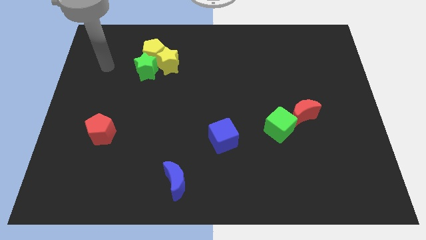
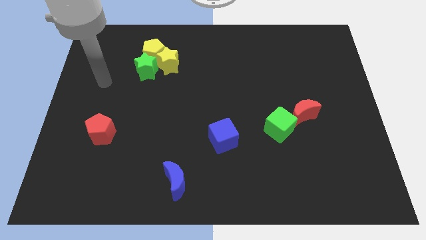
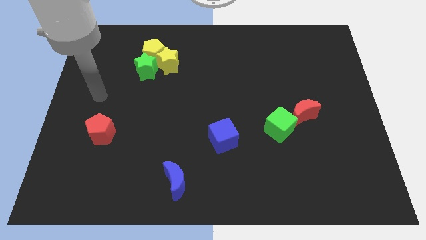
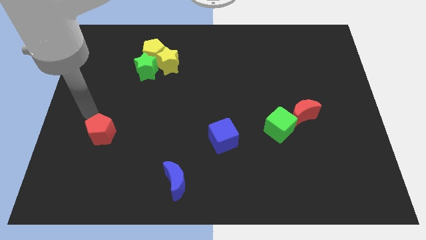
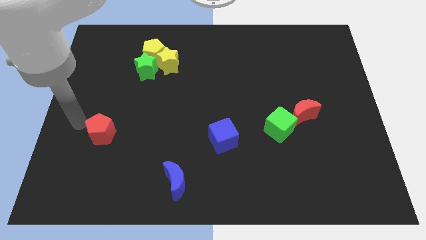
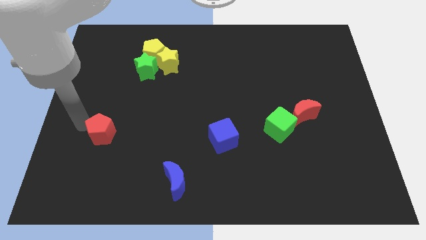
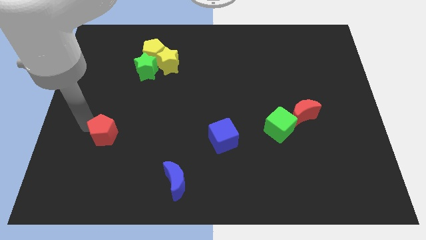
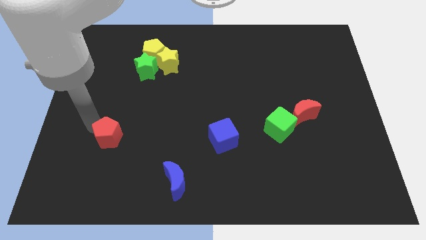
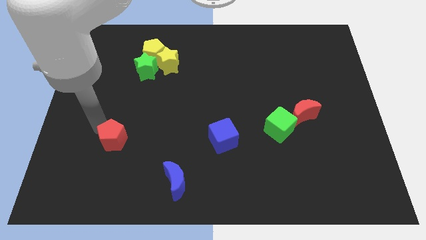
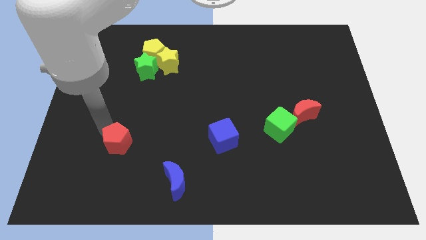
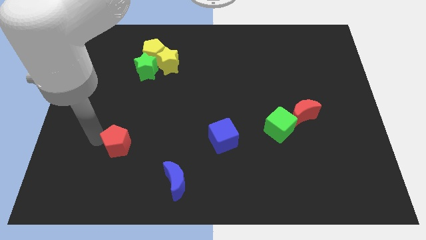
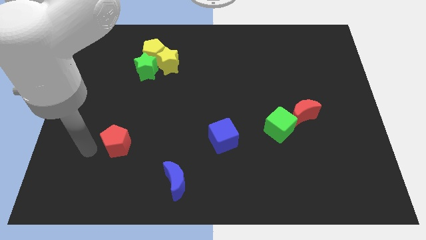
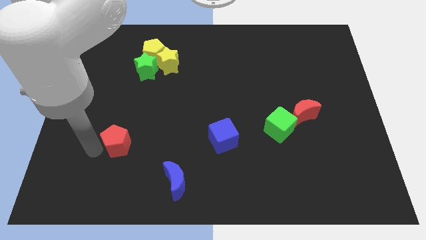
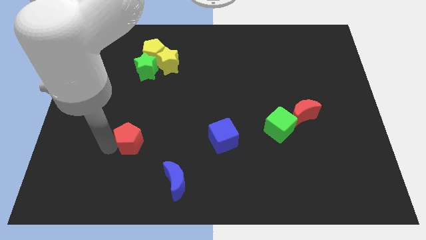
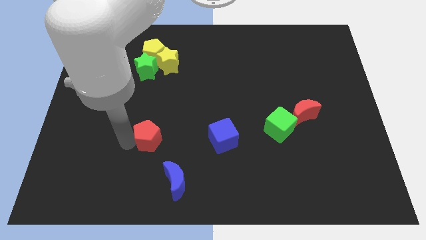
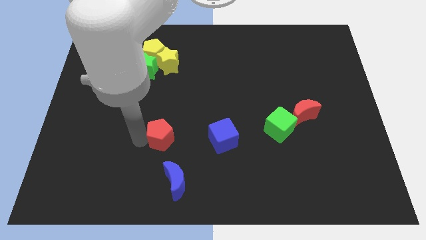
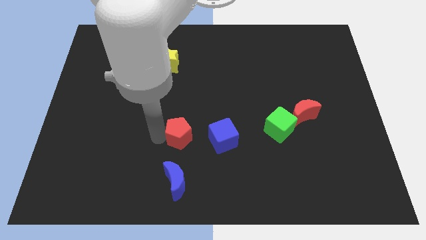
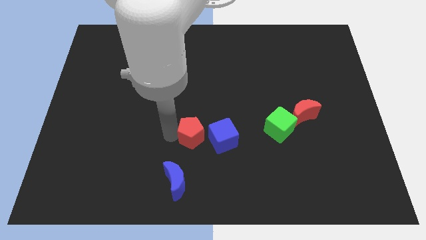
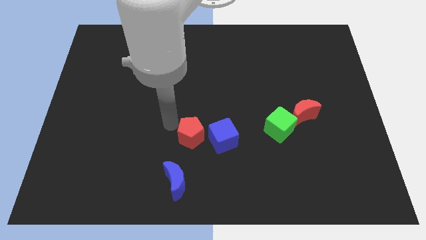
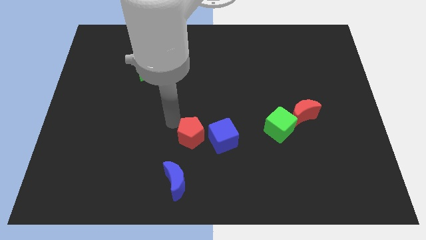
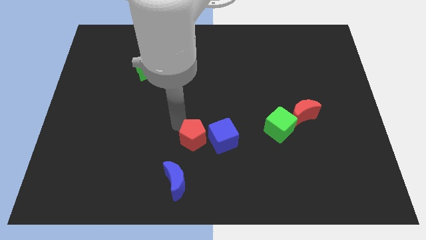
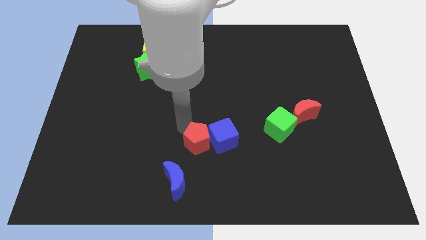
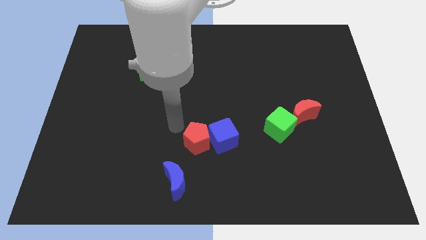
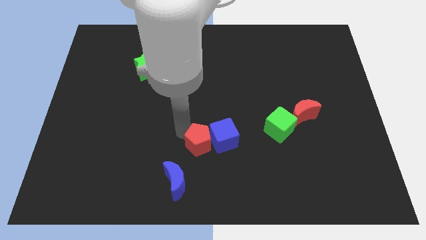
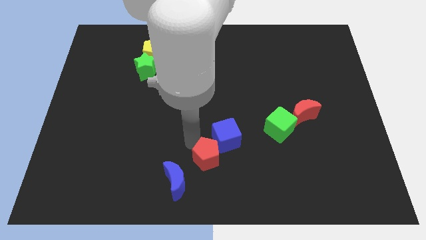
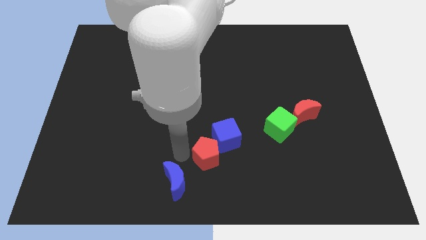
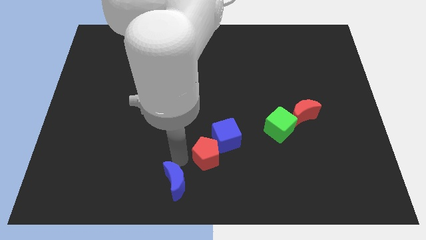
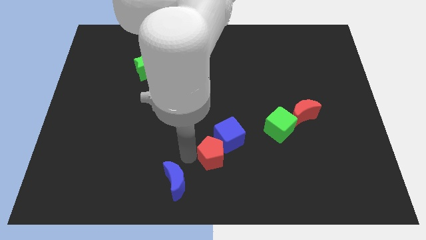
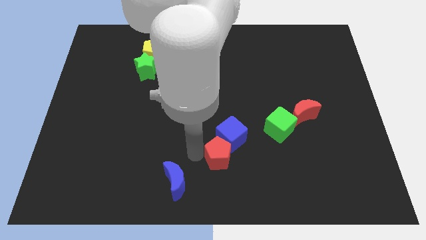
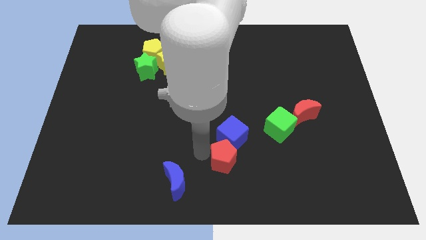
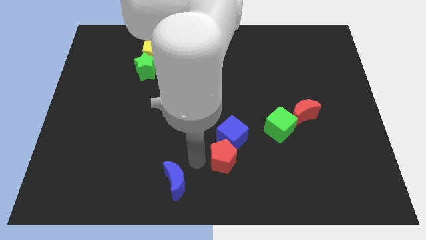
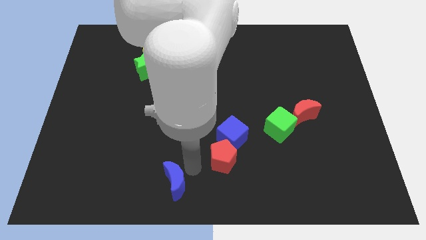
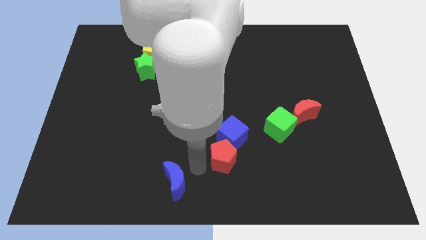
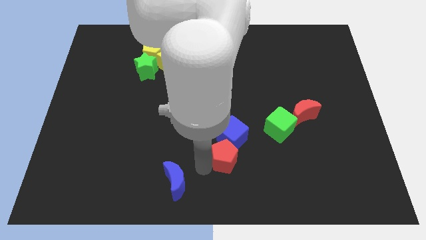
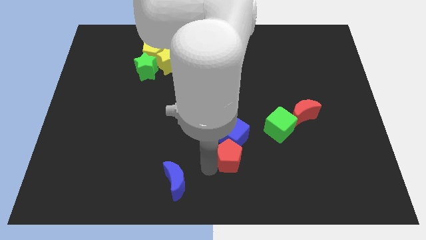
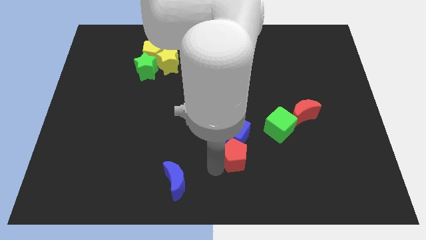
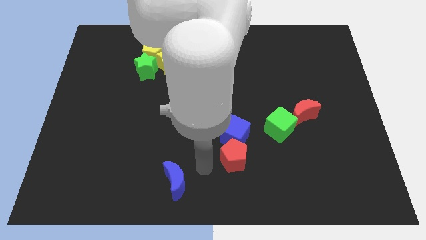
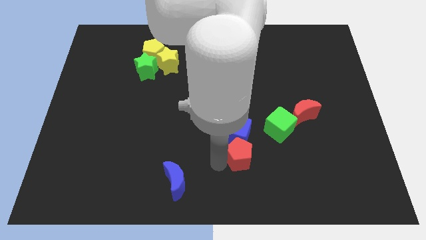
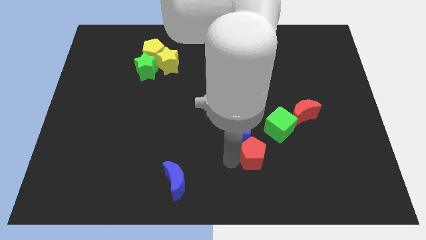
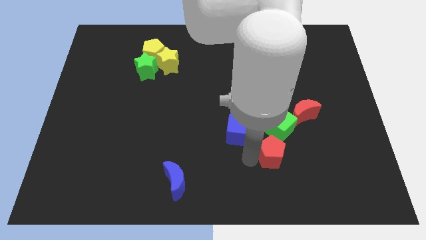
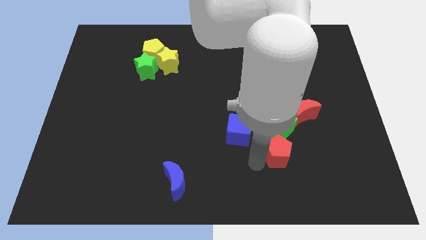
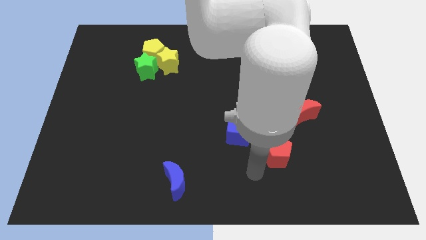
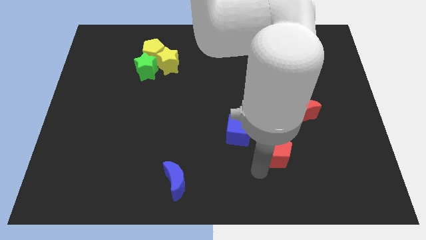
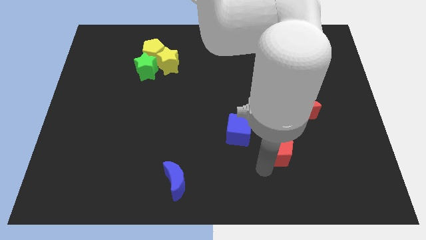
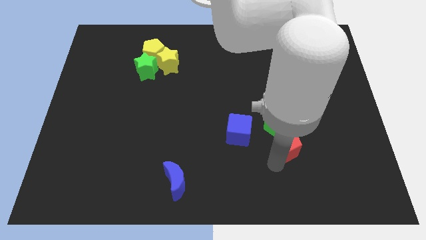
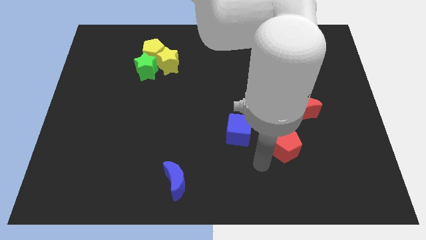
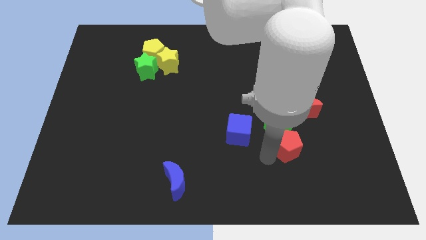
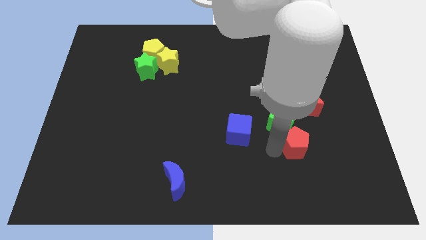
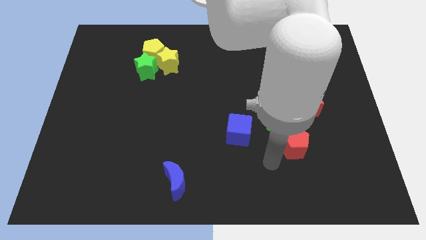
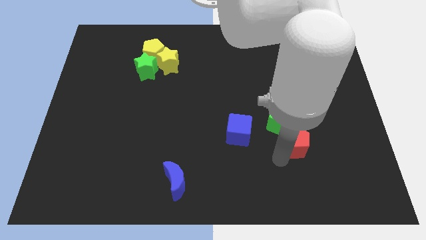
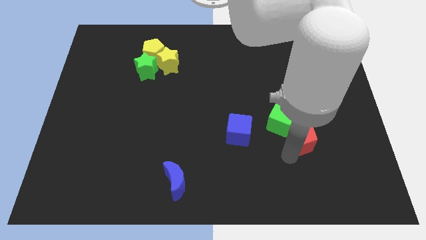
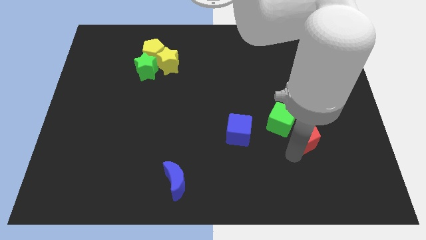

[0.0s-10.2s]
push the red pentagon just right of the green cube

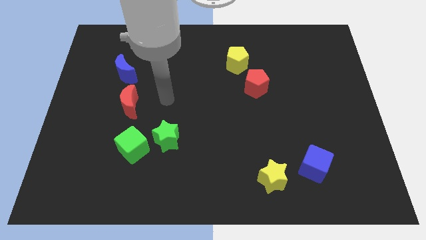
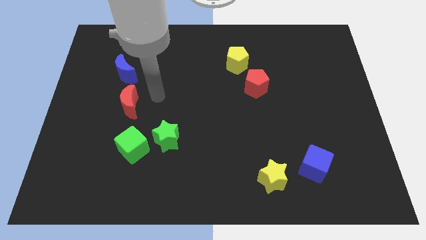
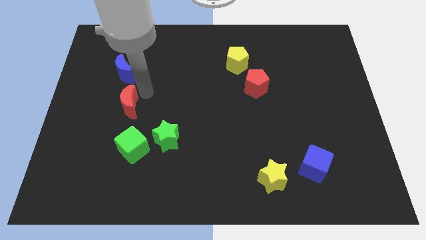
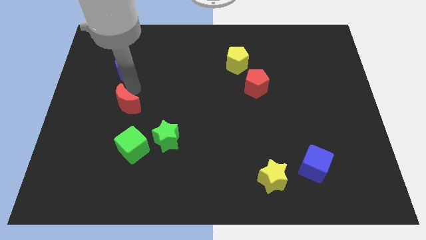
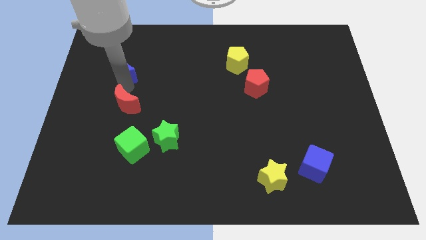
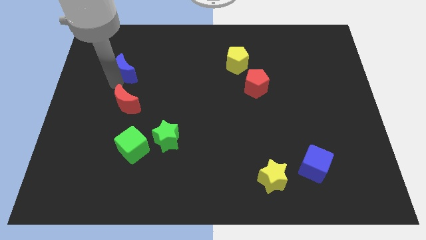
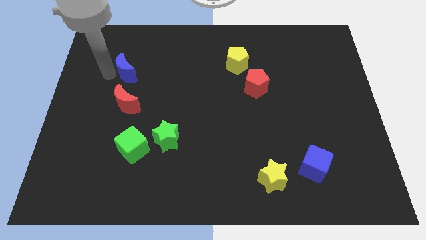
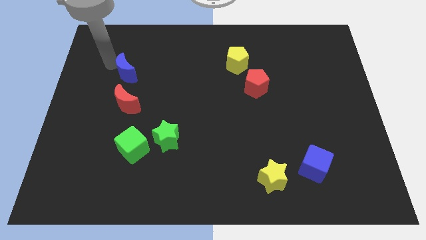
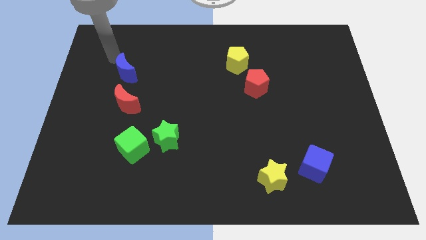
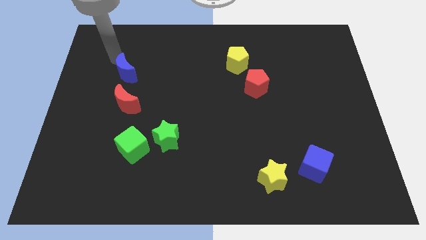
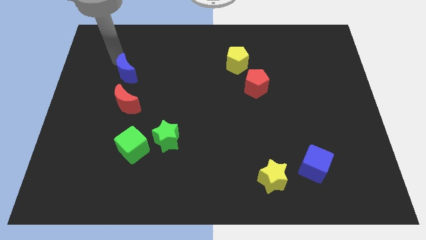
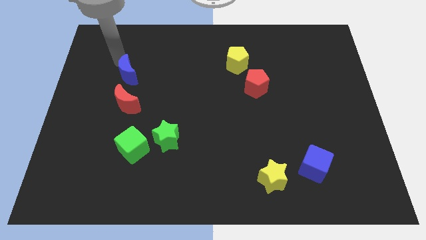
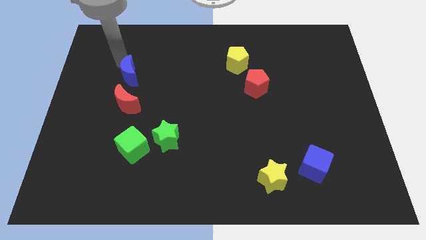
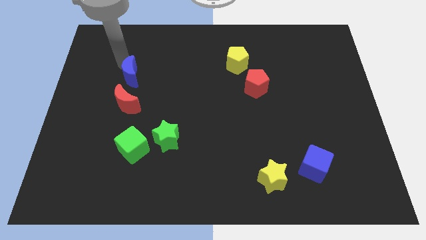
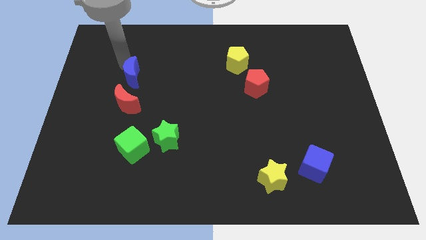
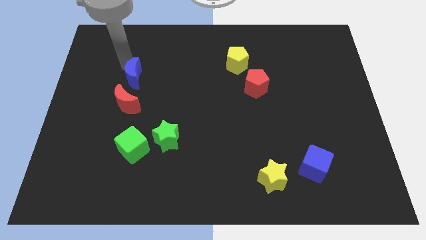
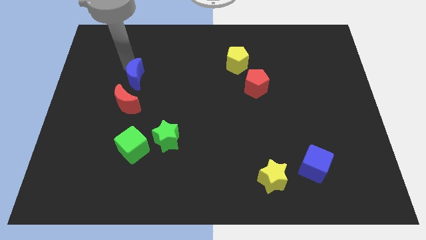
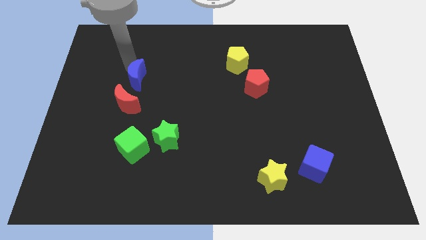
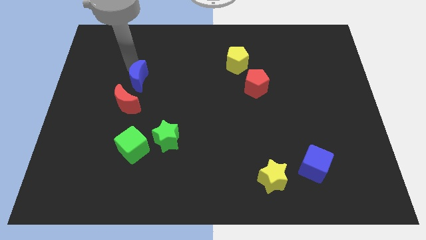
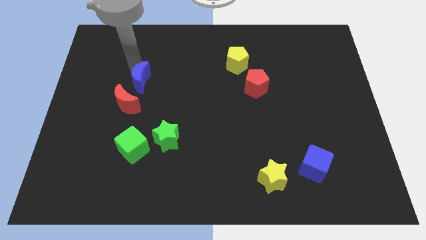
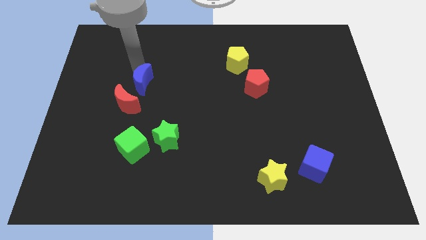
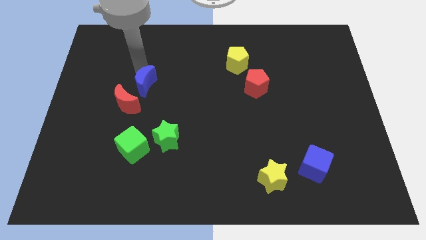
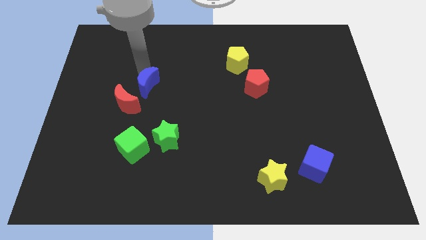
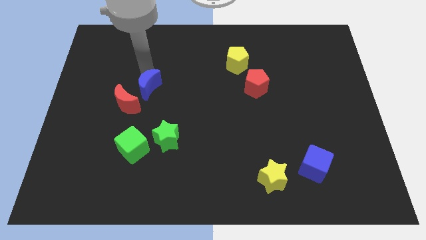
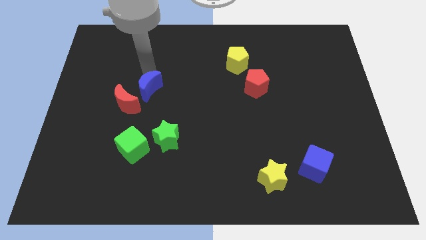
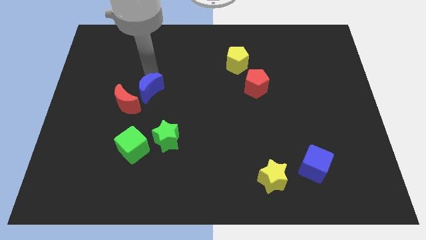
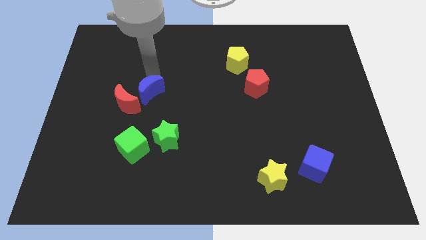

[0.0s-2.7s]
put the blue moon above the green cube

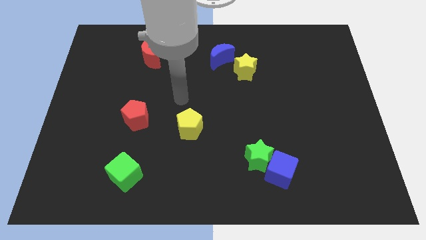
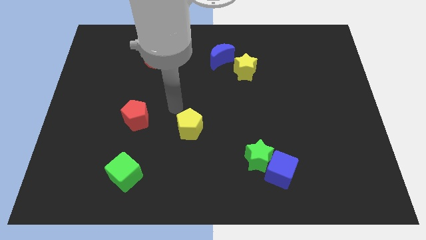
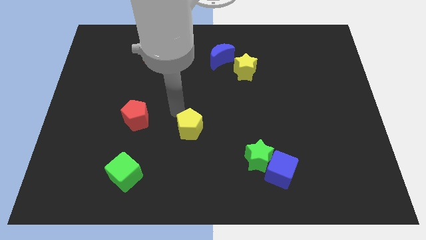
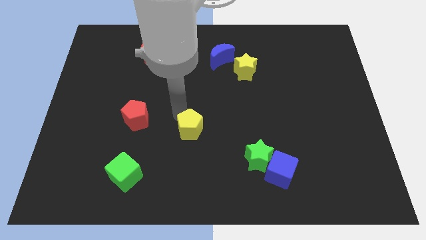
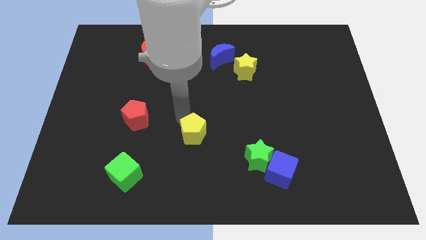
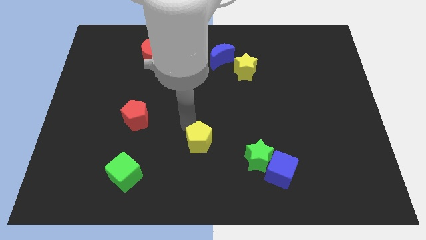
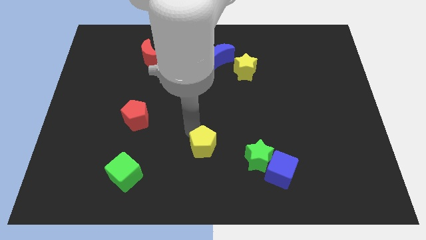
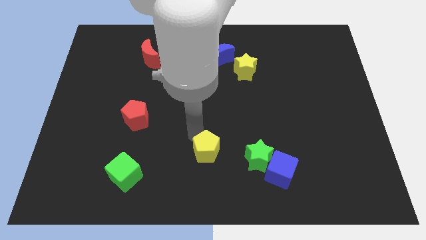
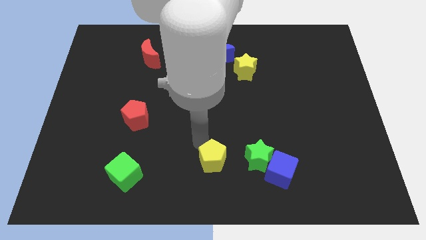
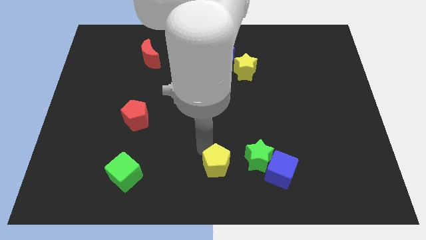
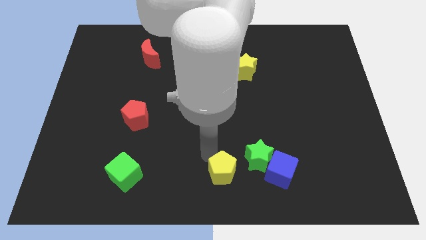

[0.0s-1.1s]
put the yellow pentagon diagonally down and to the left of the green star
